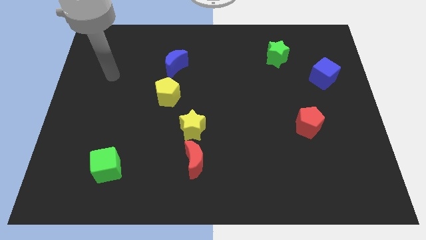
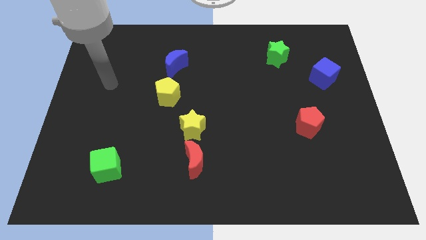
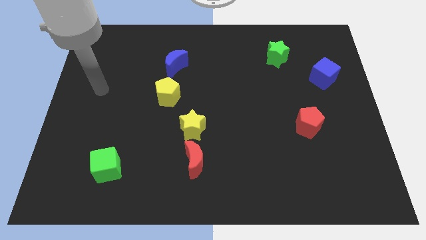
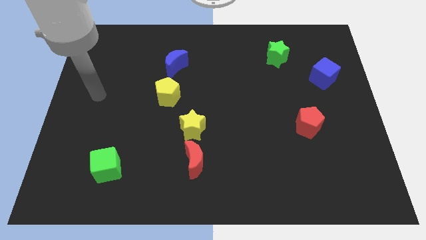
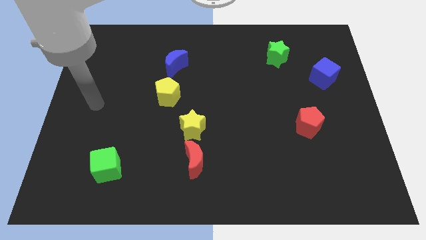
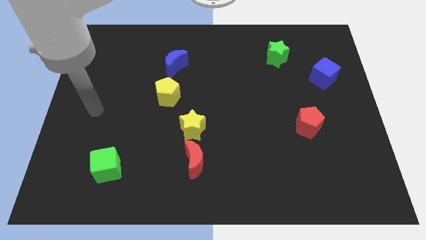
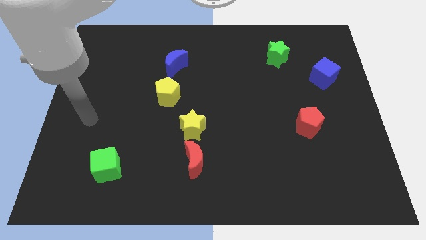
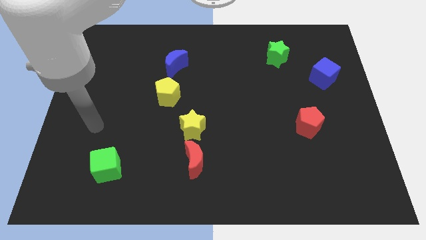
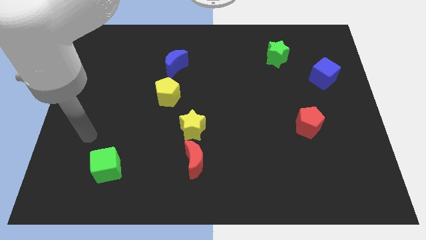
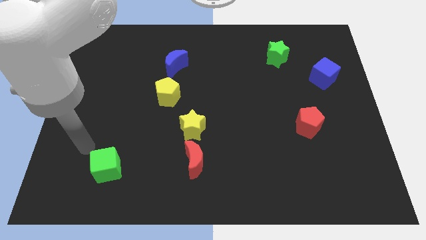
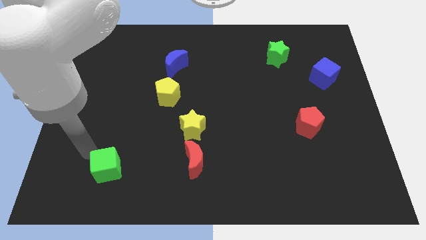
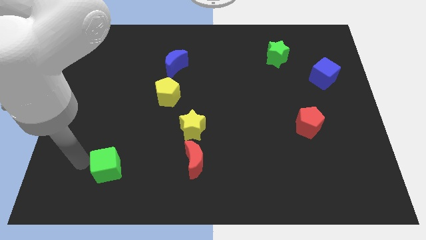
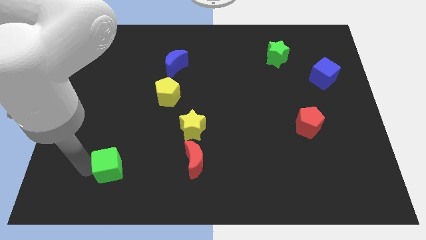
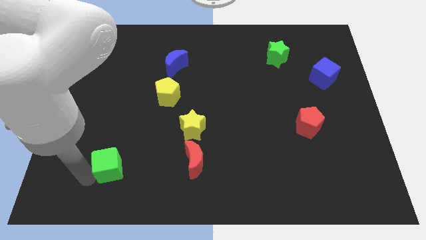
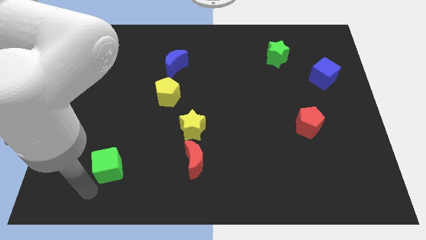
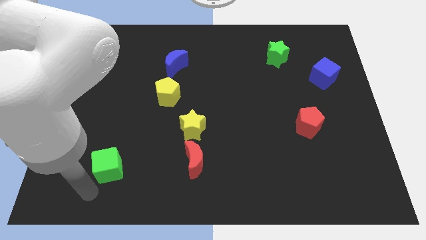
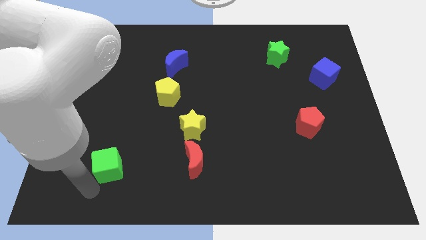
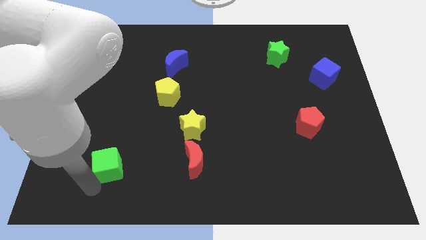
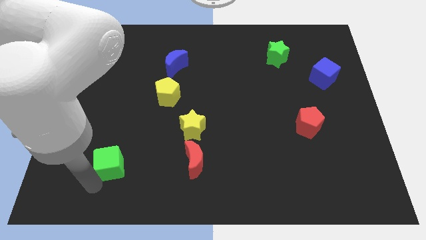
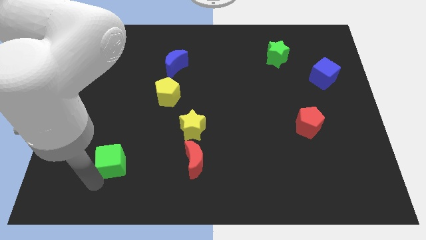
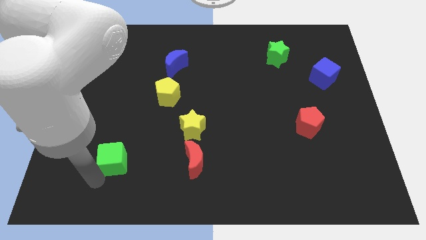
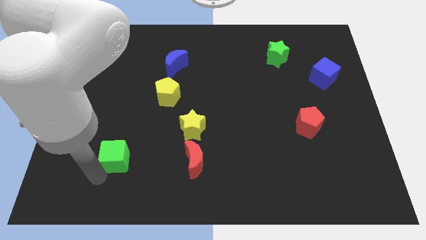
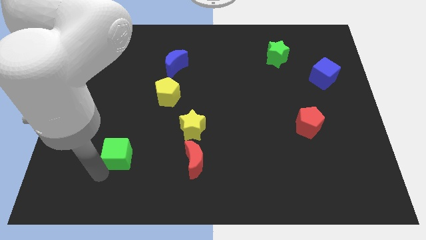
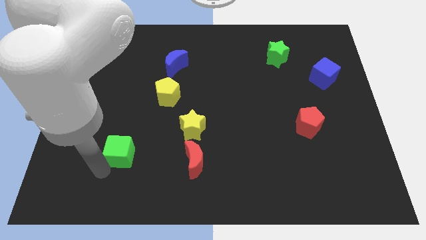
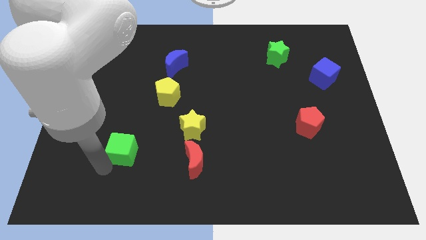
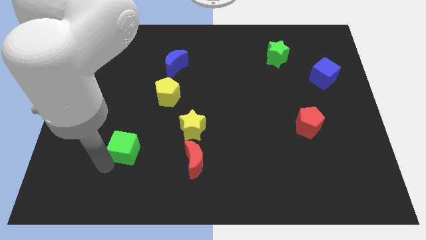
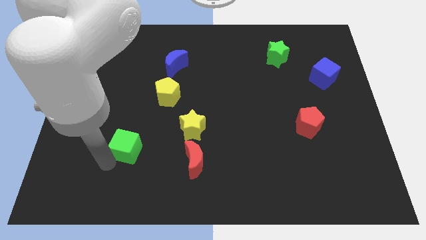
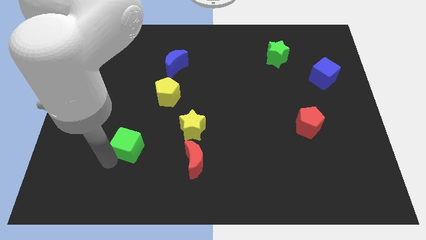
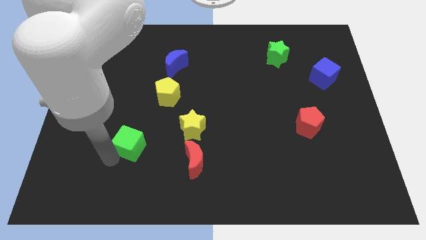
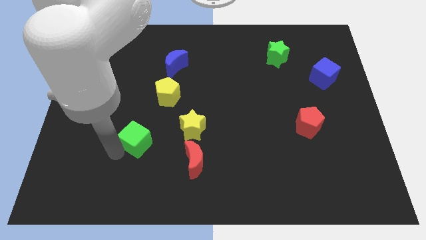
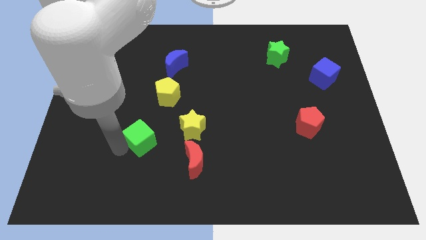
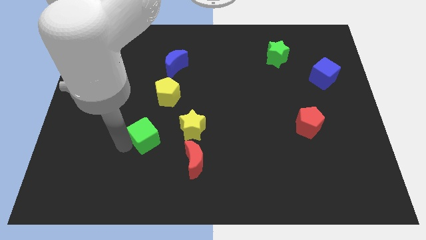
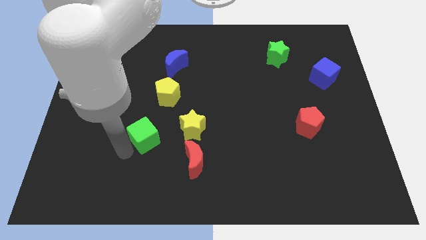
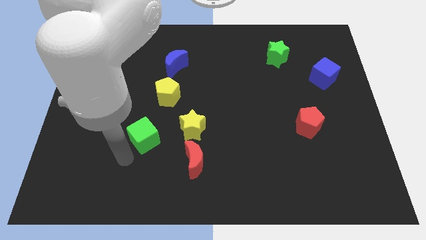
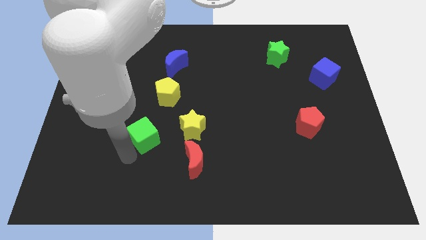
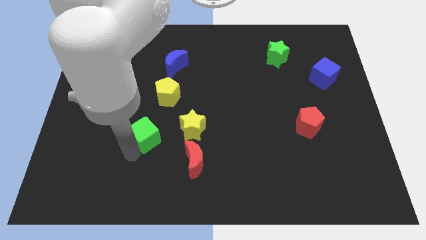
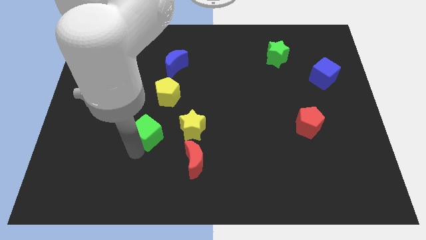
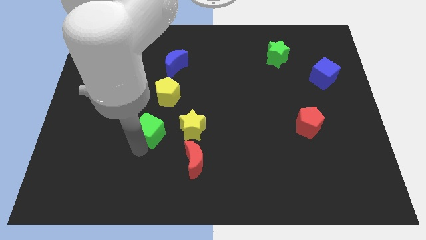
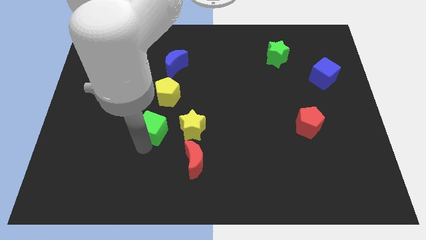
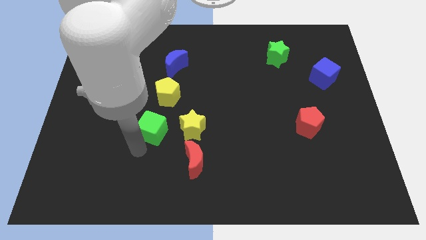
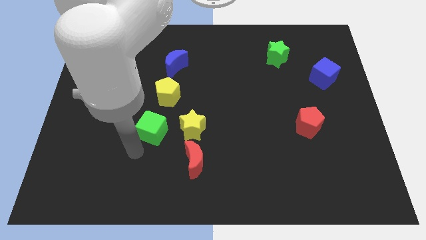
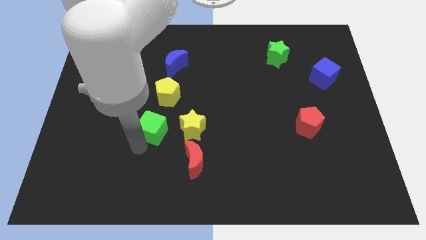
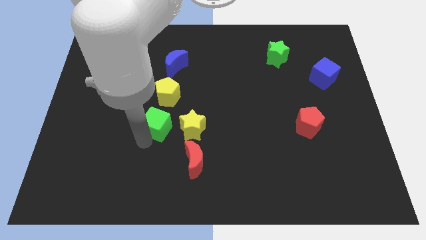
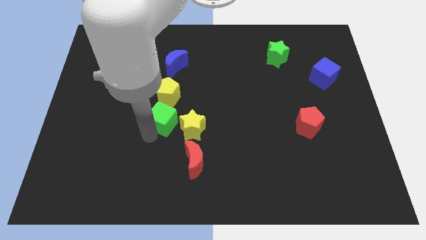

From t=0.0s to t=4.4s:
slide the green cube to the top left side of the yellow star

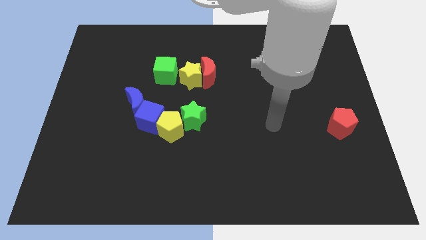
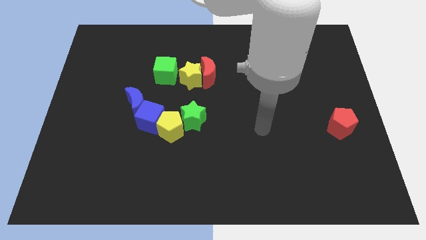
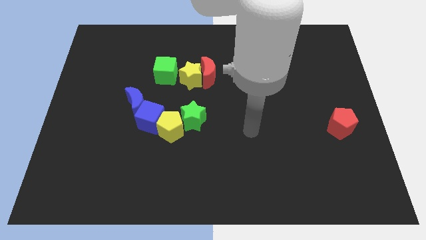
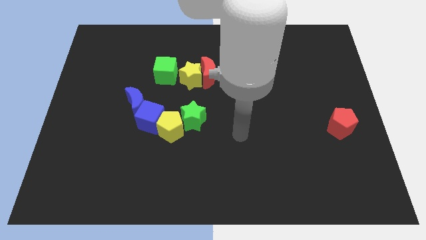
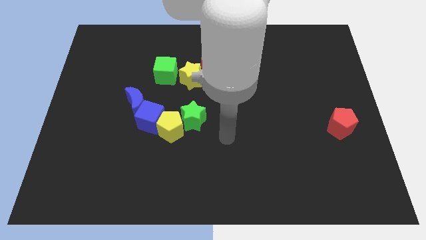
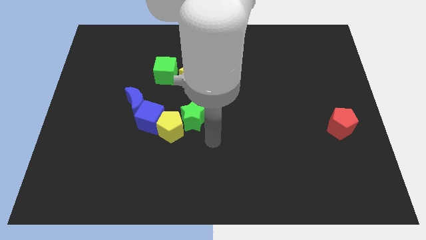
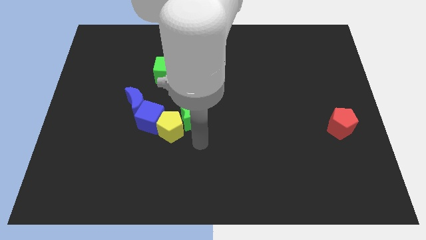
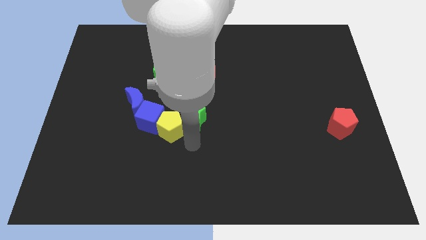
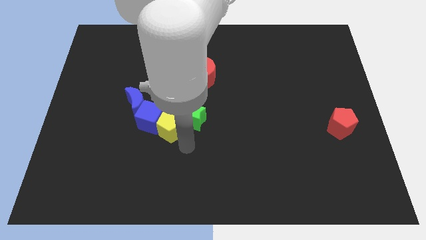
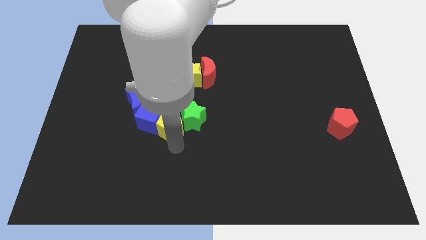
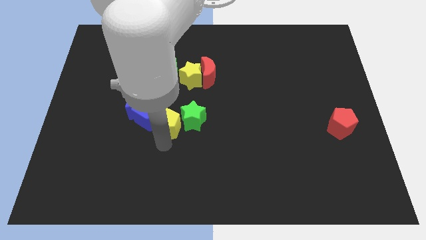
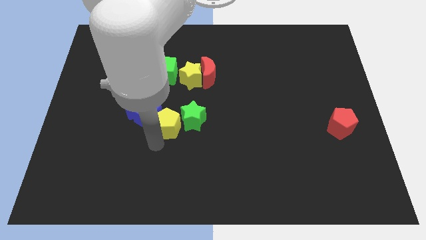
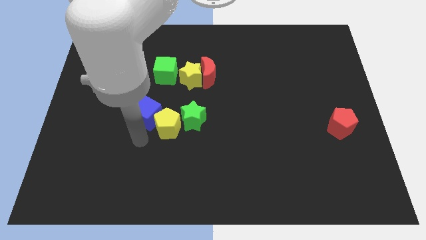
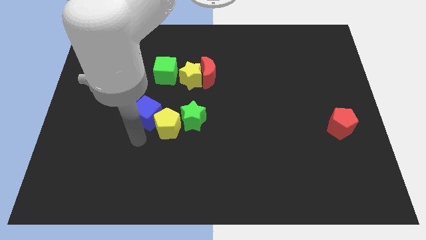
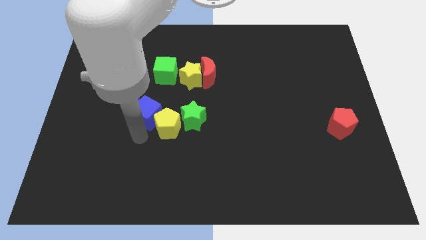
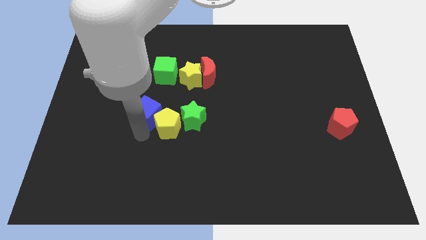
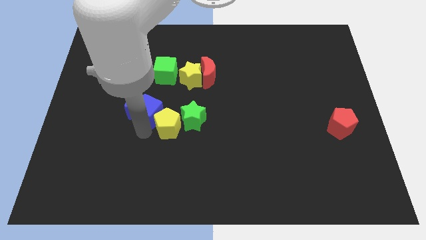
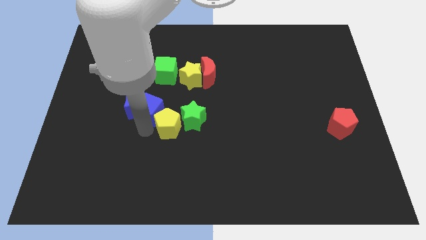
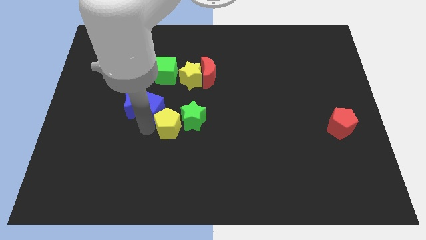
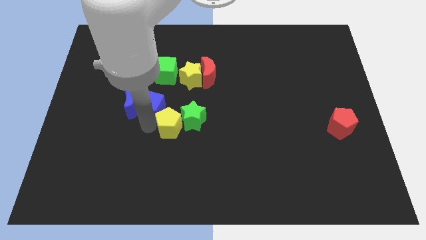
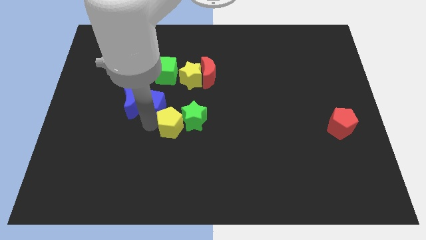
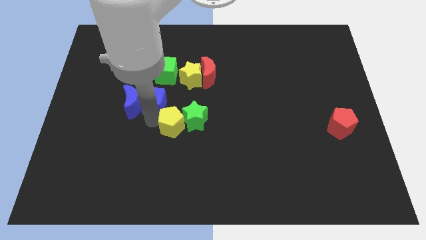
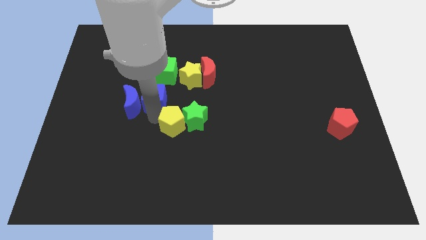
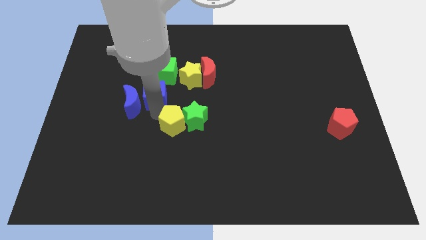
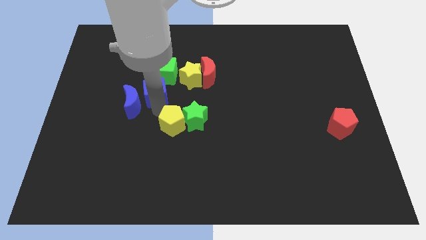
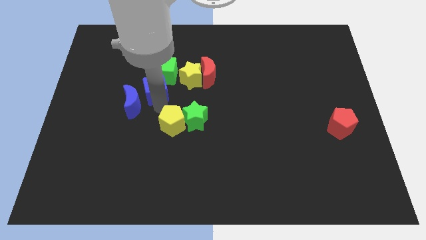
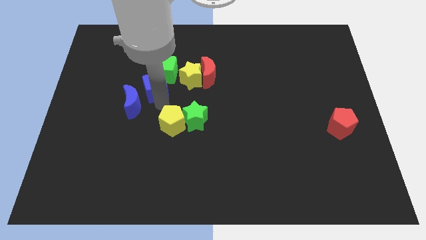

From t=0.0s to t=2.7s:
slide the blue cube to the top side of the blue moon

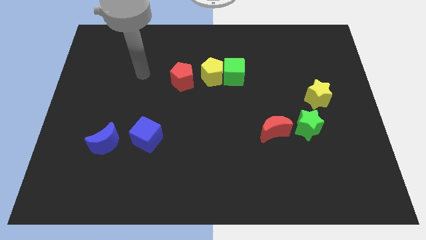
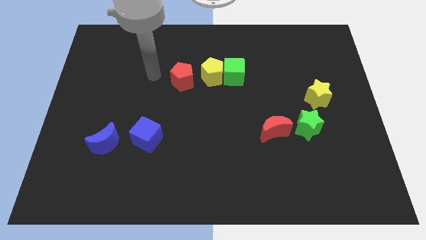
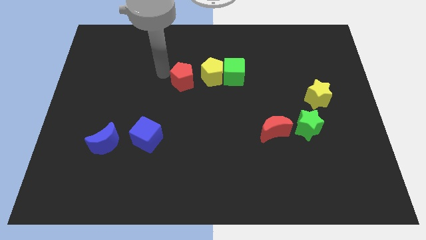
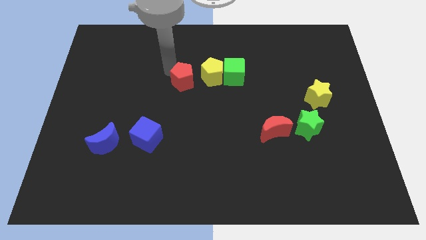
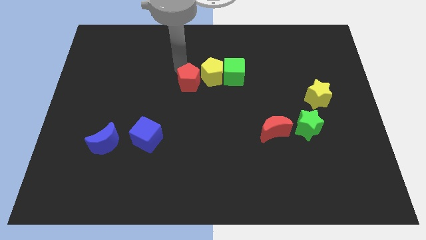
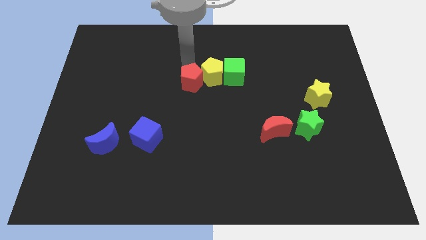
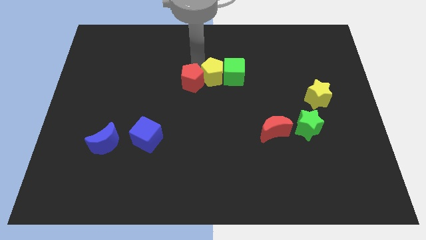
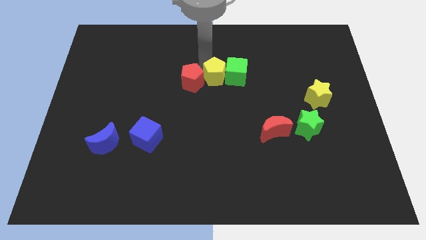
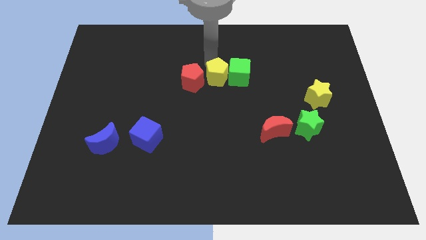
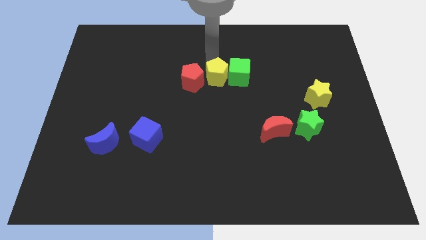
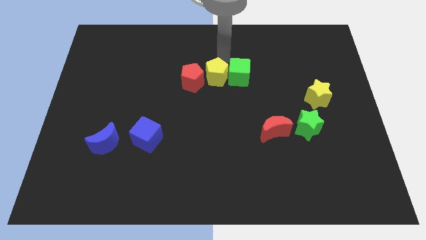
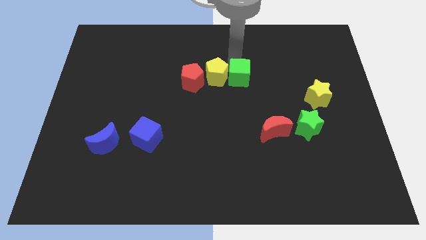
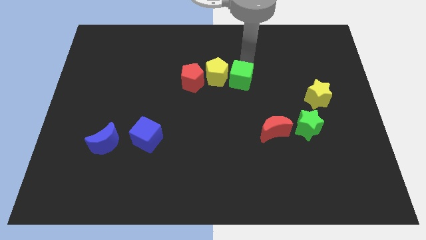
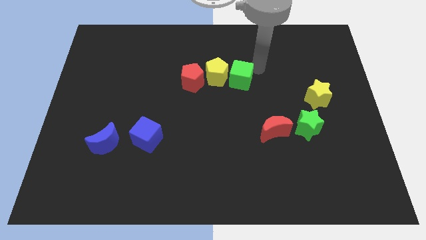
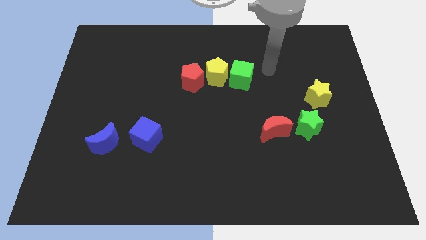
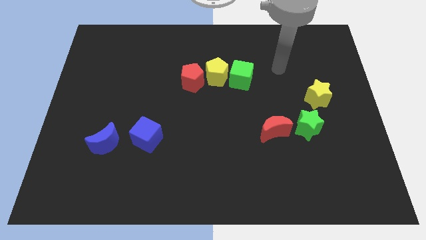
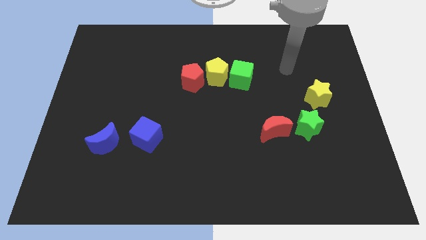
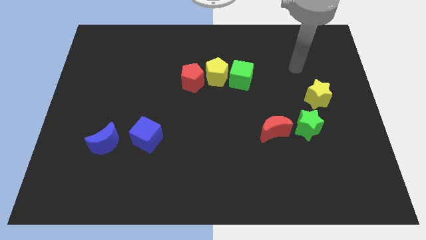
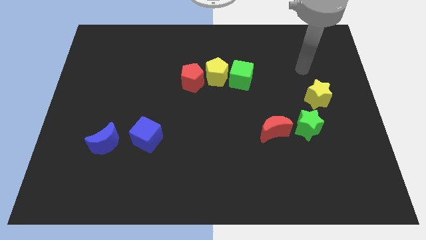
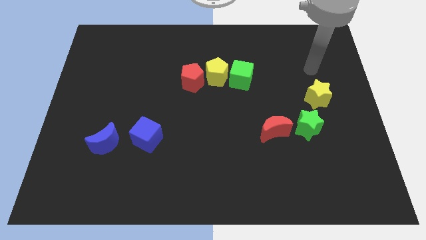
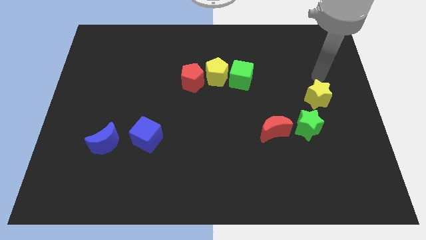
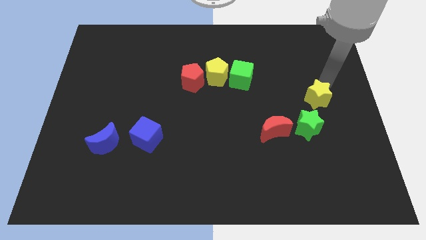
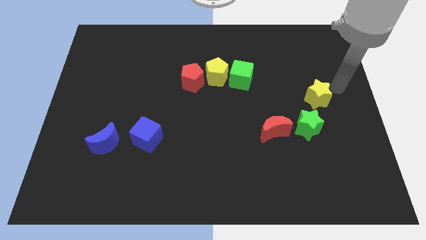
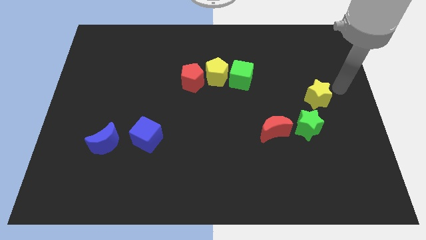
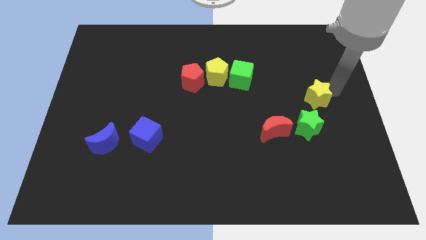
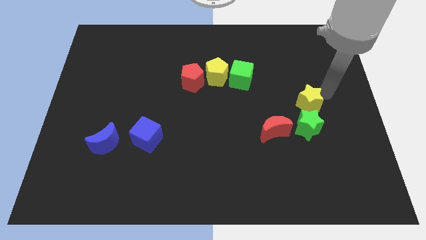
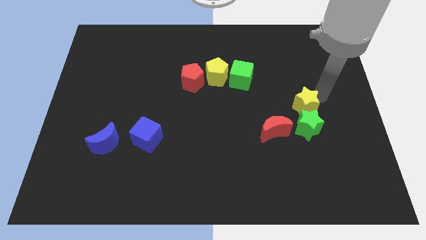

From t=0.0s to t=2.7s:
put the yellow star to the top left side of the green star
